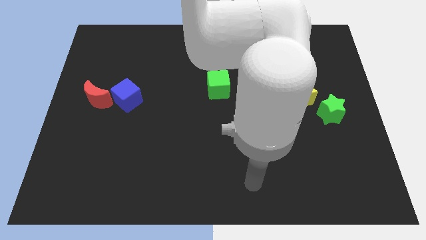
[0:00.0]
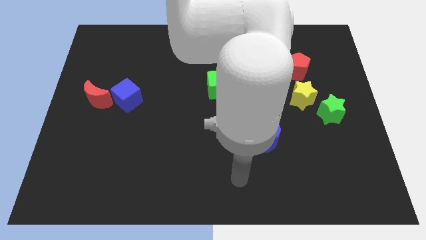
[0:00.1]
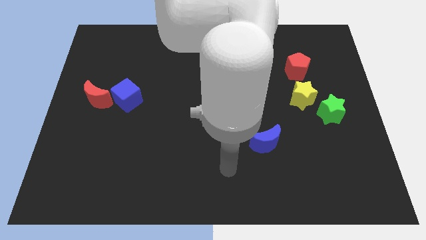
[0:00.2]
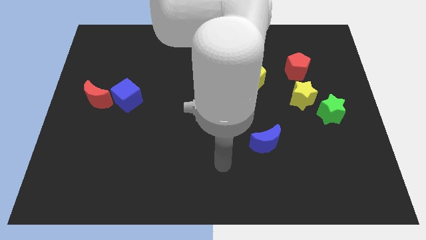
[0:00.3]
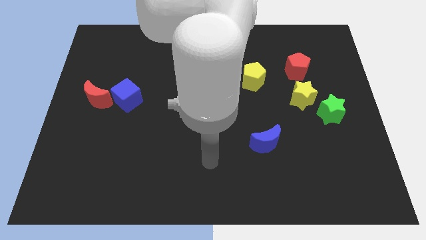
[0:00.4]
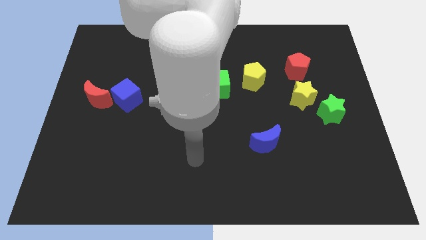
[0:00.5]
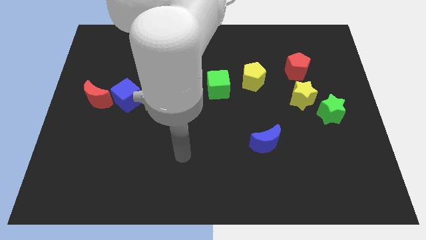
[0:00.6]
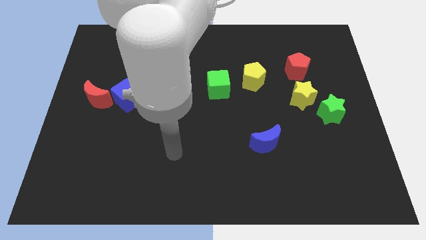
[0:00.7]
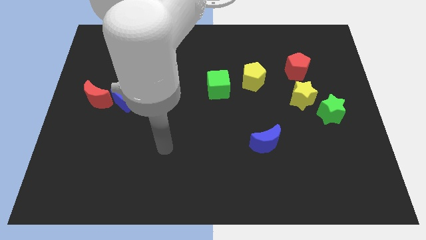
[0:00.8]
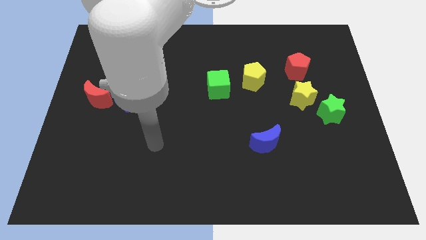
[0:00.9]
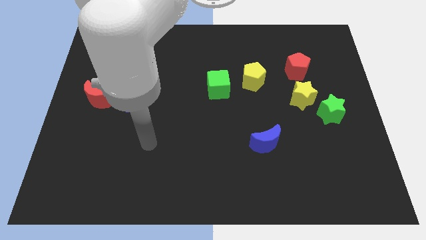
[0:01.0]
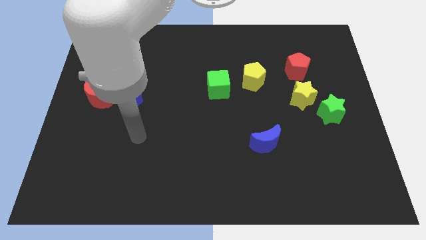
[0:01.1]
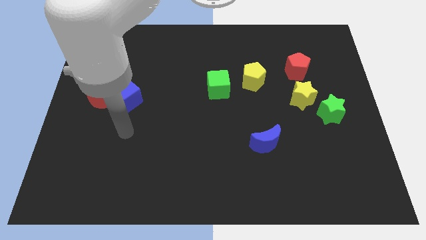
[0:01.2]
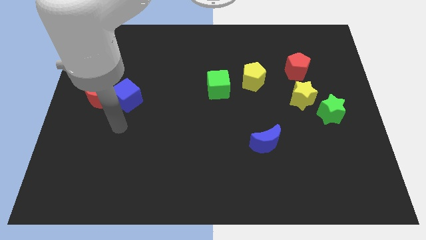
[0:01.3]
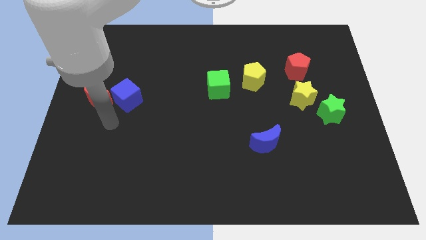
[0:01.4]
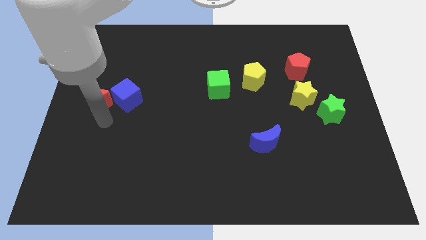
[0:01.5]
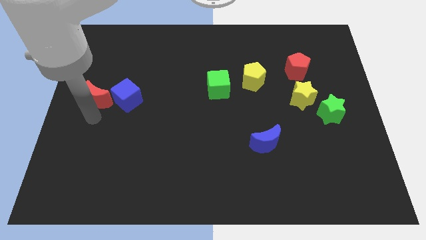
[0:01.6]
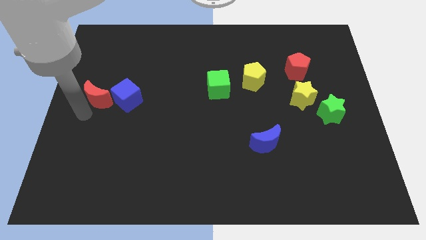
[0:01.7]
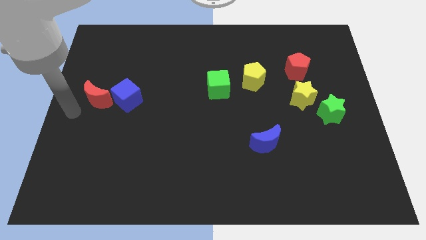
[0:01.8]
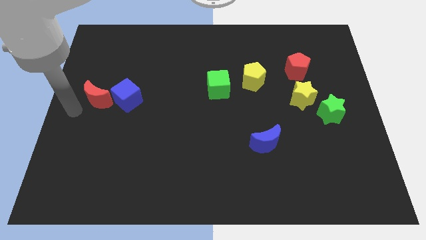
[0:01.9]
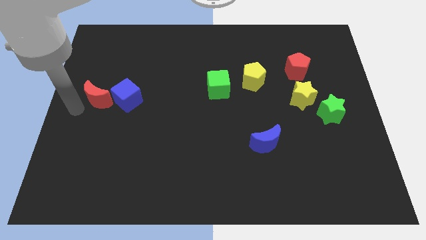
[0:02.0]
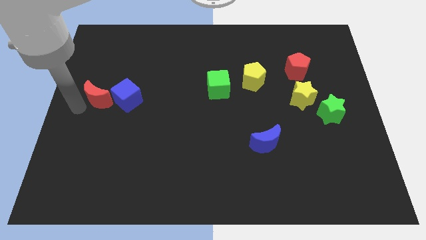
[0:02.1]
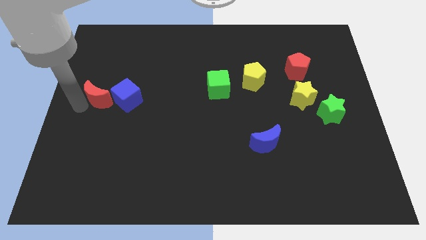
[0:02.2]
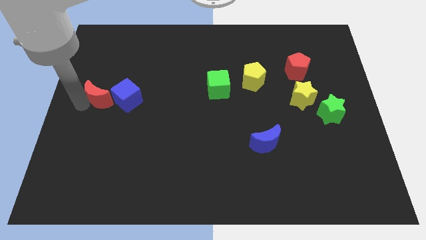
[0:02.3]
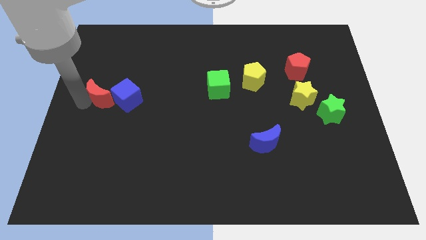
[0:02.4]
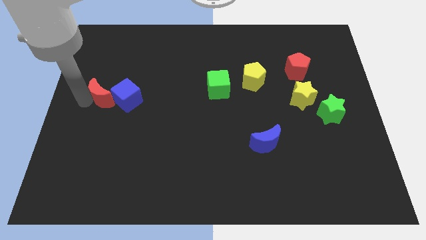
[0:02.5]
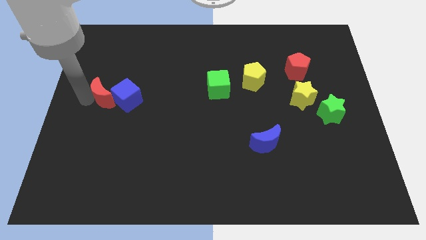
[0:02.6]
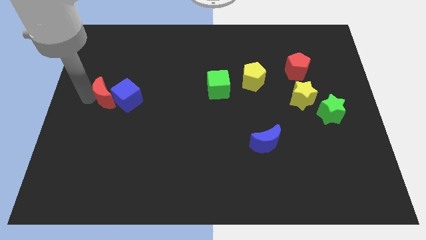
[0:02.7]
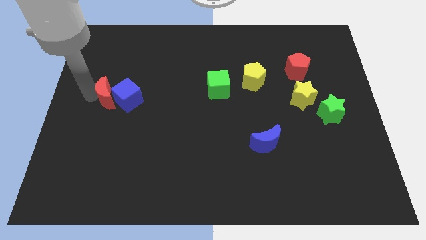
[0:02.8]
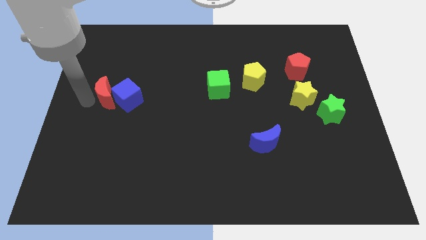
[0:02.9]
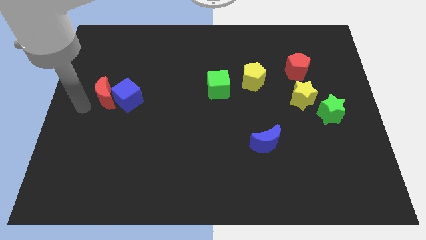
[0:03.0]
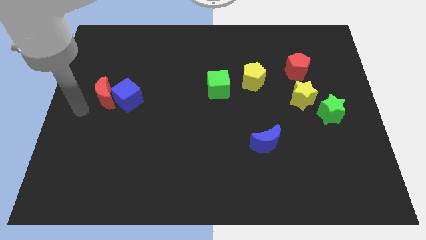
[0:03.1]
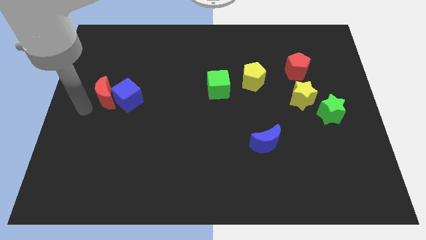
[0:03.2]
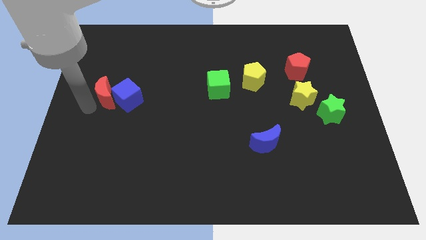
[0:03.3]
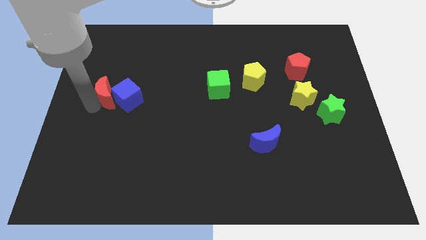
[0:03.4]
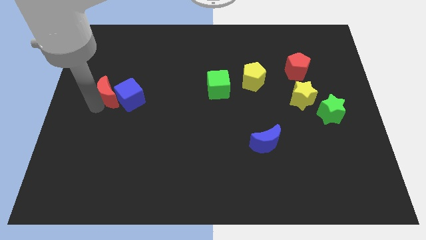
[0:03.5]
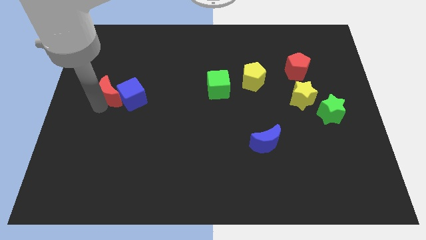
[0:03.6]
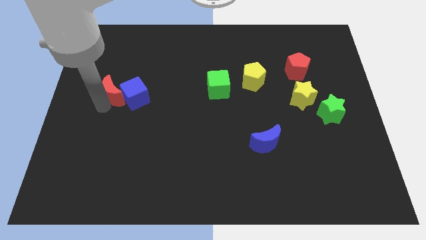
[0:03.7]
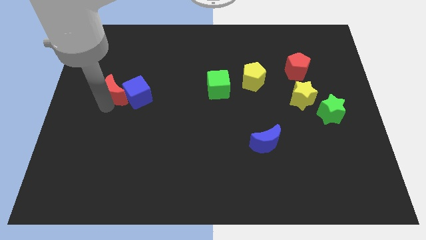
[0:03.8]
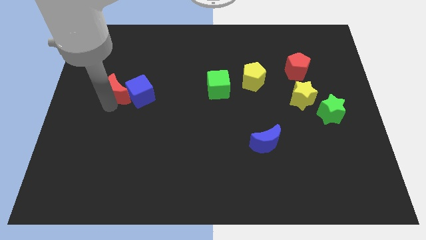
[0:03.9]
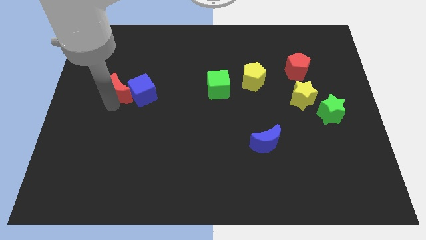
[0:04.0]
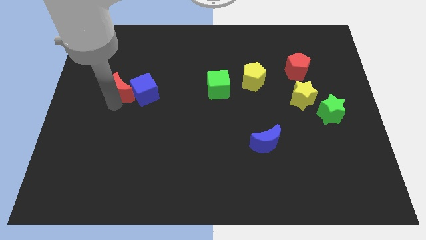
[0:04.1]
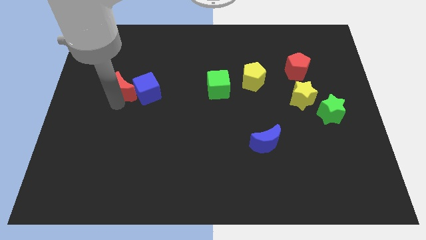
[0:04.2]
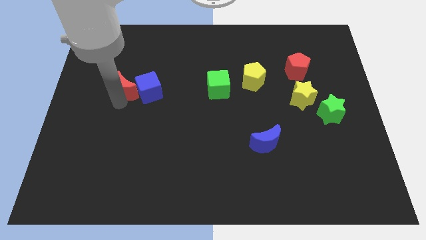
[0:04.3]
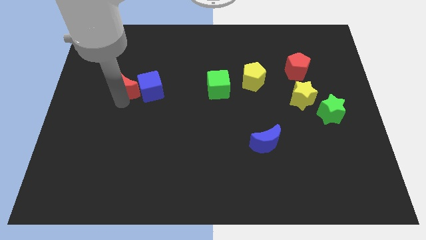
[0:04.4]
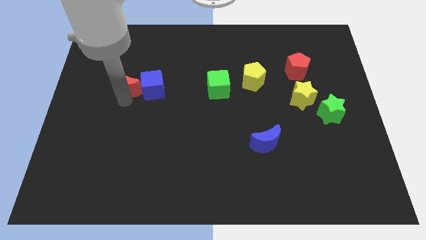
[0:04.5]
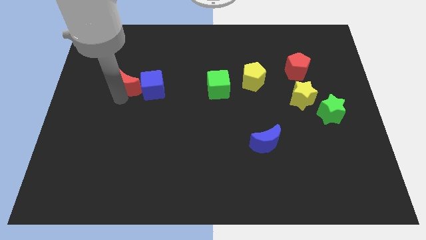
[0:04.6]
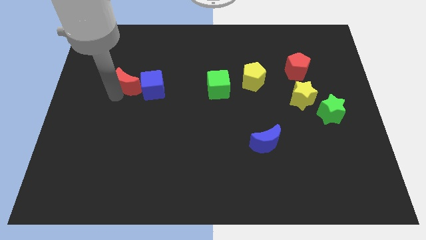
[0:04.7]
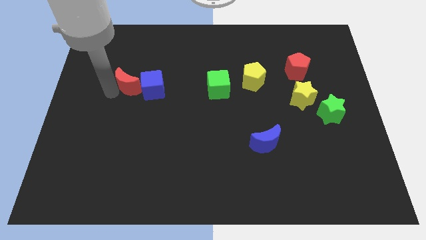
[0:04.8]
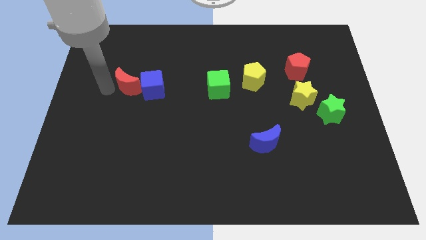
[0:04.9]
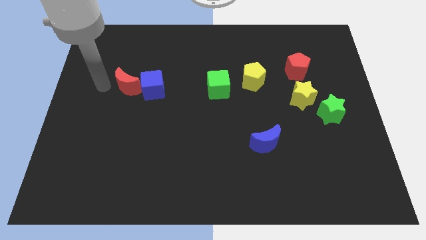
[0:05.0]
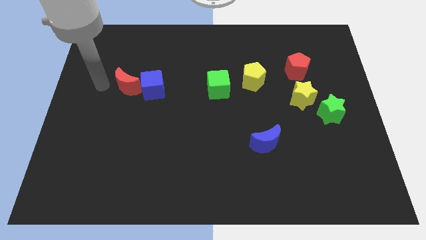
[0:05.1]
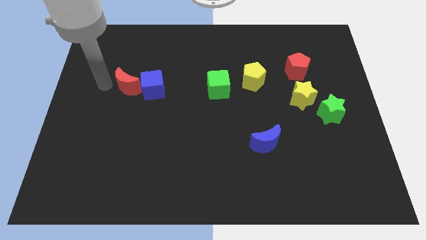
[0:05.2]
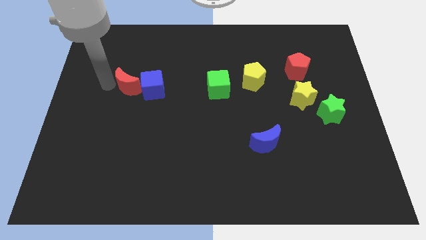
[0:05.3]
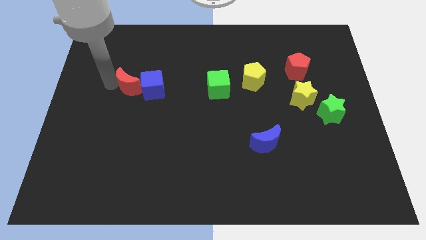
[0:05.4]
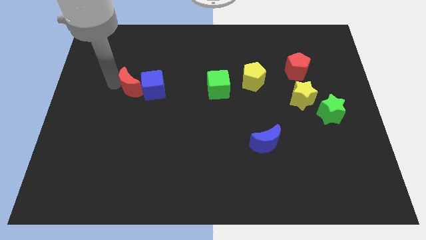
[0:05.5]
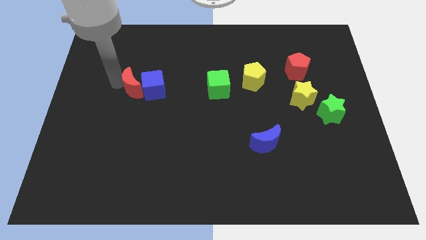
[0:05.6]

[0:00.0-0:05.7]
move the red moon a little bit to the right

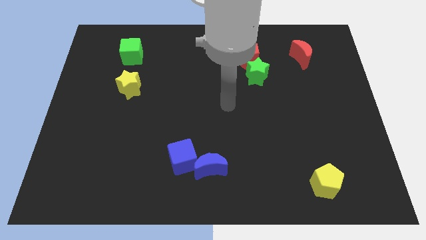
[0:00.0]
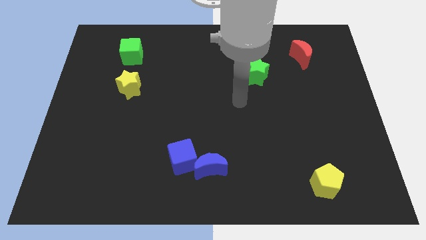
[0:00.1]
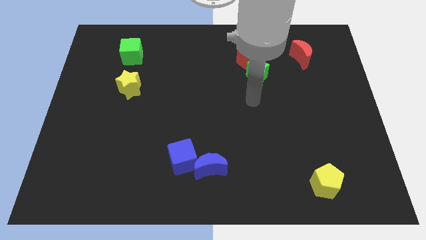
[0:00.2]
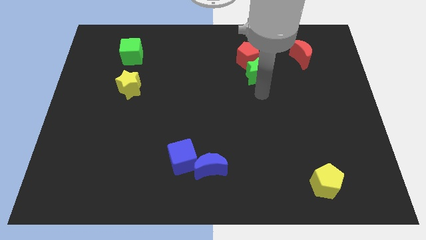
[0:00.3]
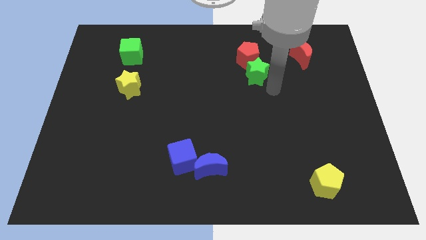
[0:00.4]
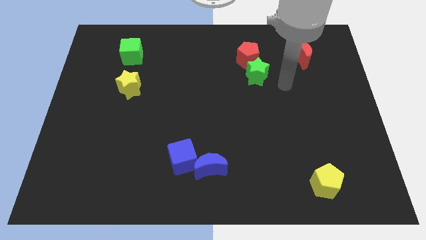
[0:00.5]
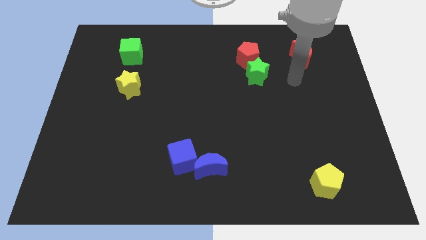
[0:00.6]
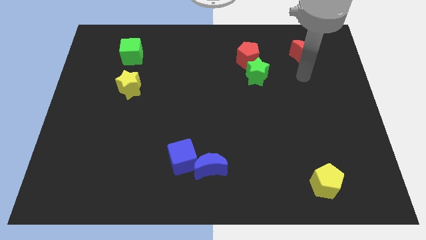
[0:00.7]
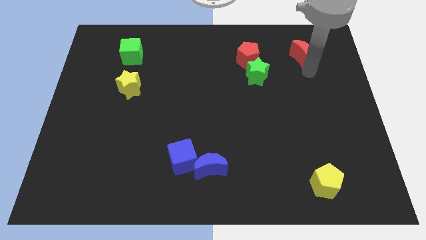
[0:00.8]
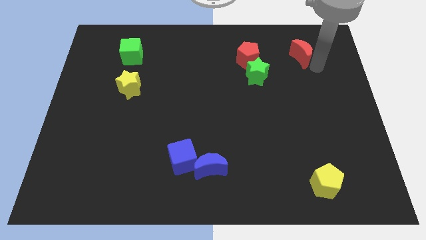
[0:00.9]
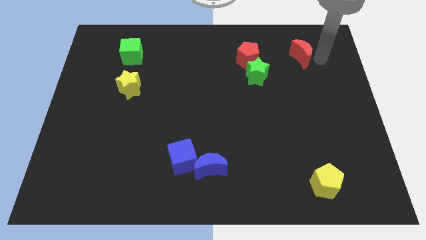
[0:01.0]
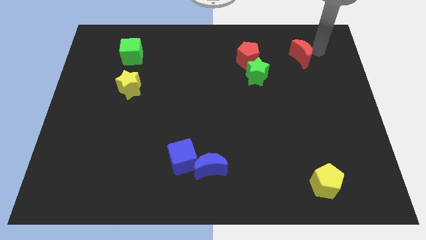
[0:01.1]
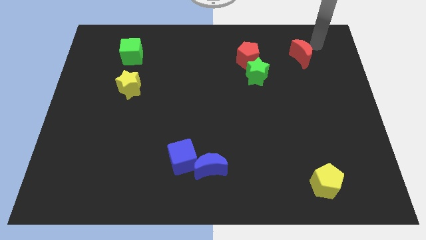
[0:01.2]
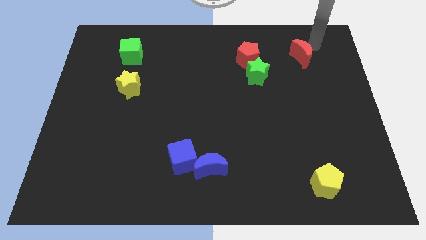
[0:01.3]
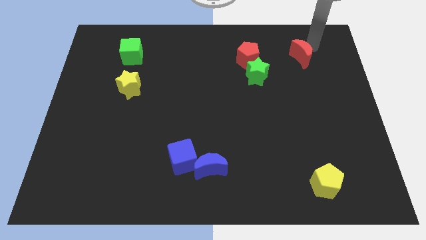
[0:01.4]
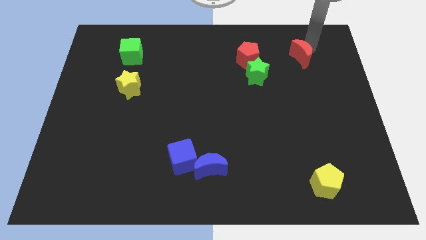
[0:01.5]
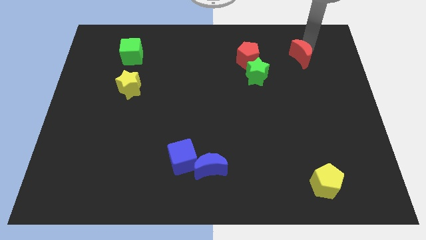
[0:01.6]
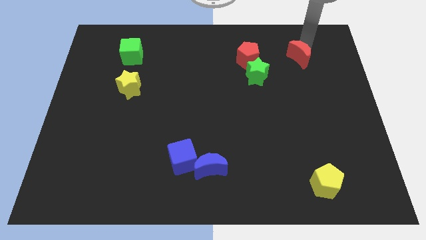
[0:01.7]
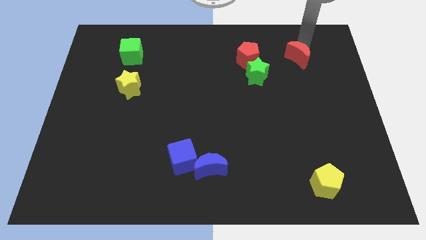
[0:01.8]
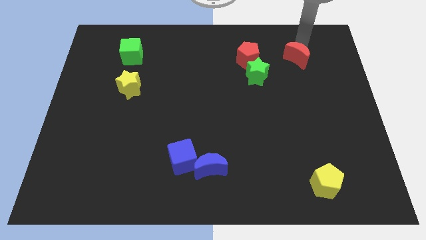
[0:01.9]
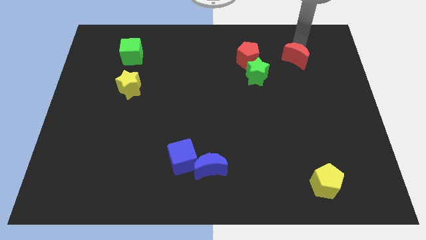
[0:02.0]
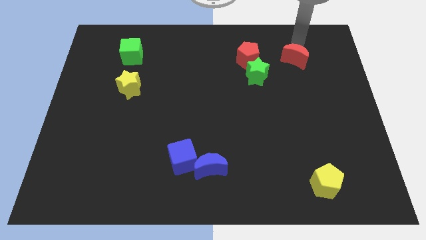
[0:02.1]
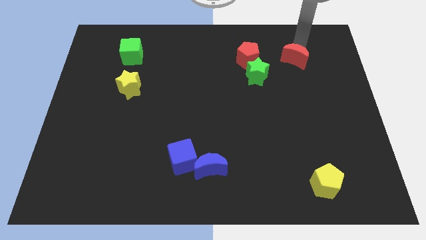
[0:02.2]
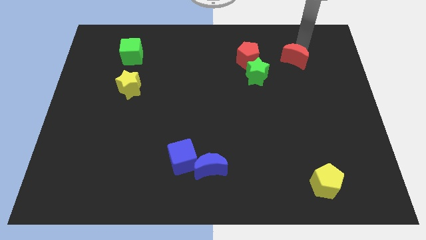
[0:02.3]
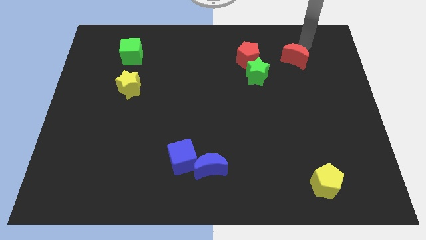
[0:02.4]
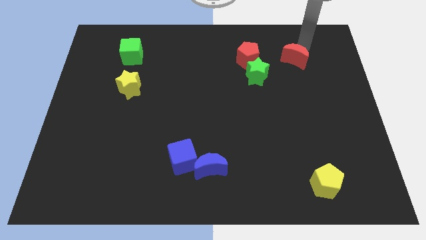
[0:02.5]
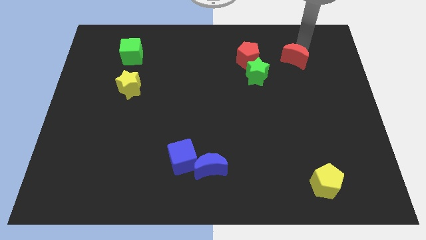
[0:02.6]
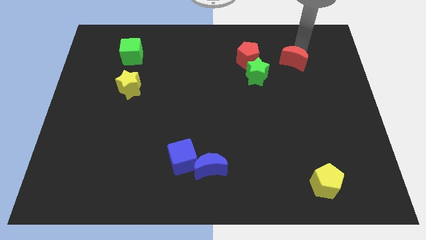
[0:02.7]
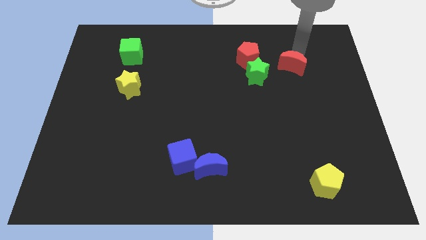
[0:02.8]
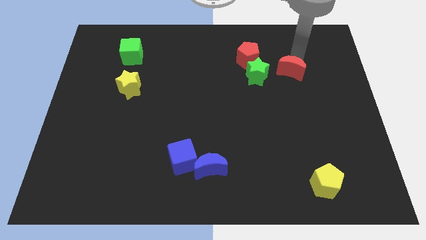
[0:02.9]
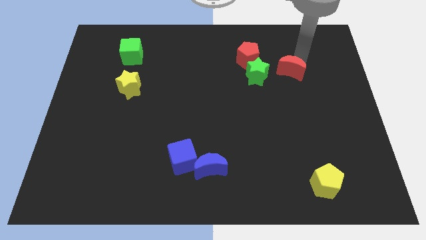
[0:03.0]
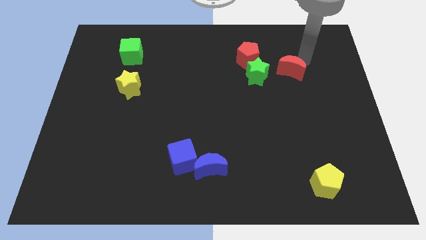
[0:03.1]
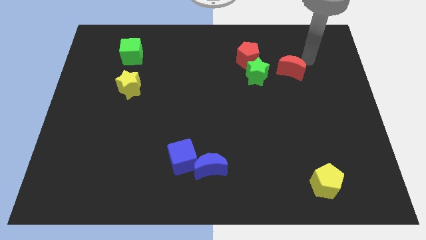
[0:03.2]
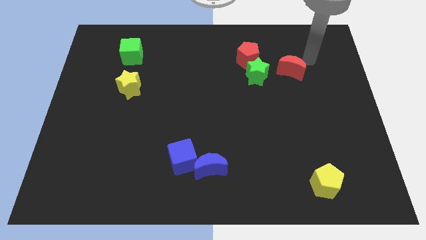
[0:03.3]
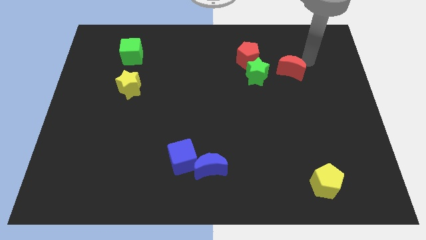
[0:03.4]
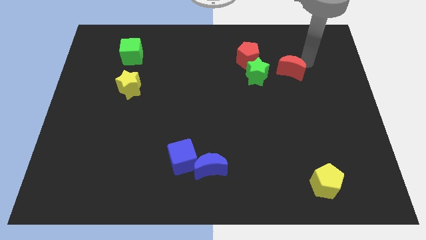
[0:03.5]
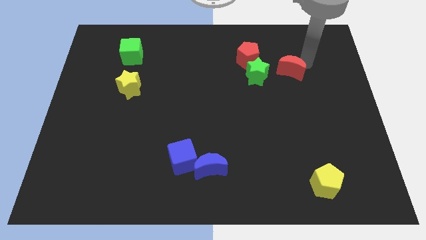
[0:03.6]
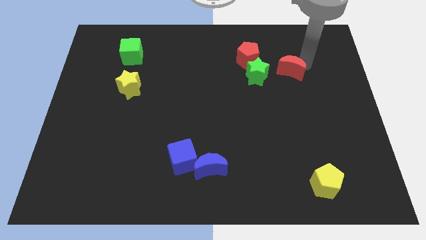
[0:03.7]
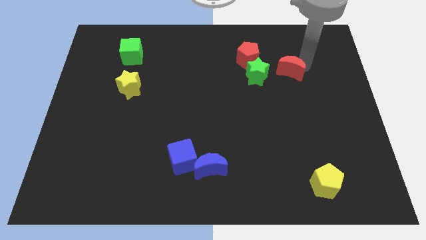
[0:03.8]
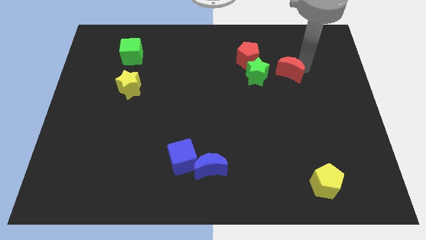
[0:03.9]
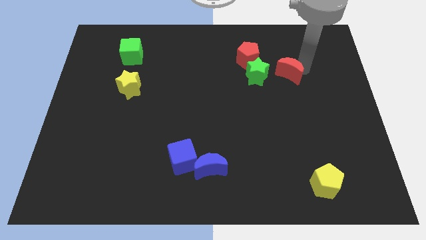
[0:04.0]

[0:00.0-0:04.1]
move the red moon somewhat downwards and then left
